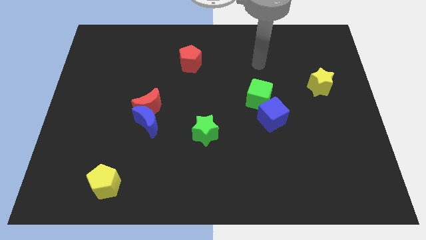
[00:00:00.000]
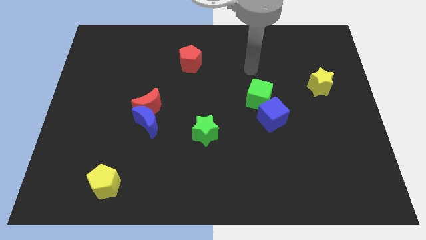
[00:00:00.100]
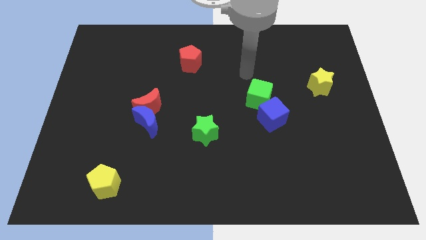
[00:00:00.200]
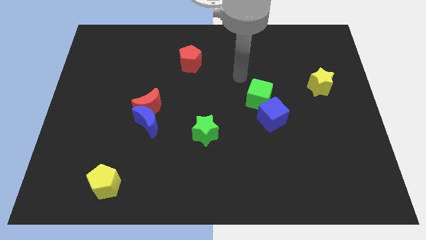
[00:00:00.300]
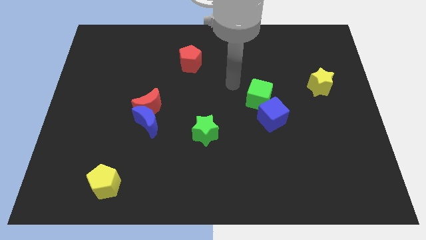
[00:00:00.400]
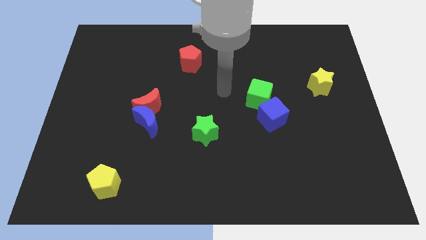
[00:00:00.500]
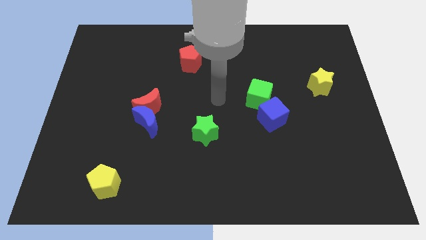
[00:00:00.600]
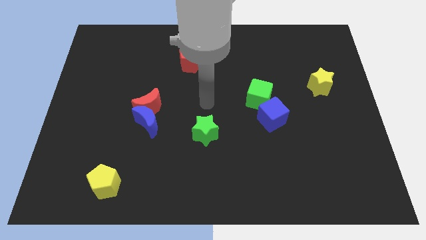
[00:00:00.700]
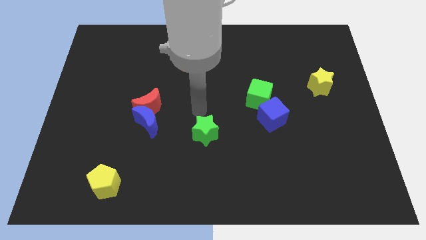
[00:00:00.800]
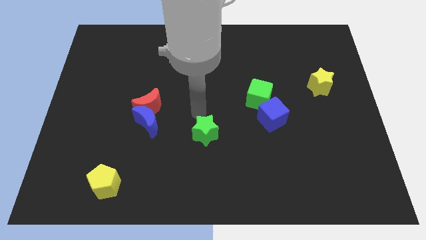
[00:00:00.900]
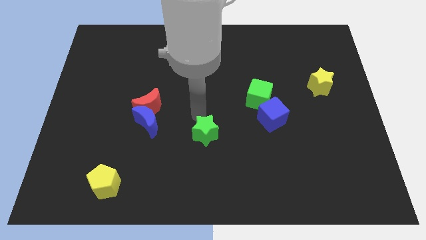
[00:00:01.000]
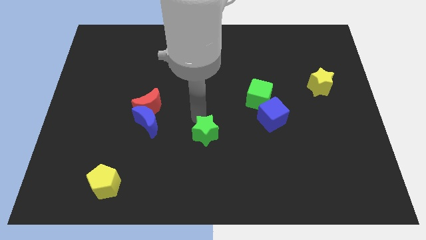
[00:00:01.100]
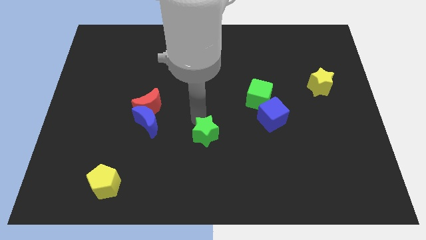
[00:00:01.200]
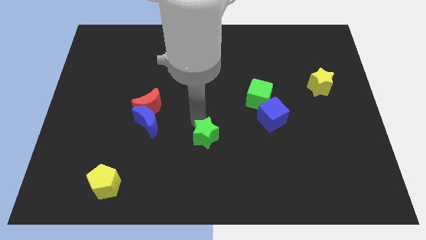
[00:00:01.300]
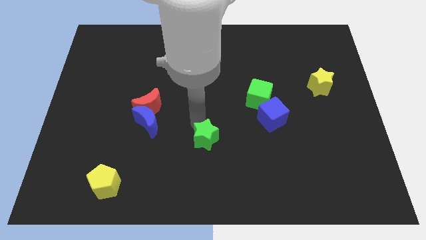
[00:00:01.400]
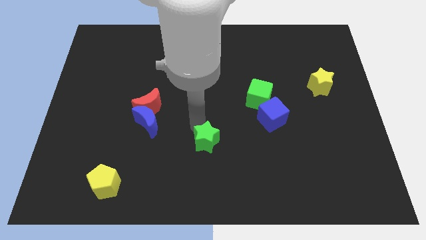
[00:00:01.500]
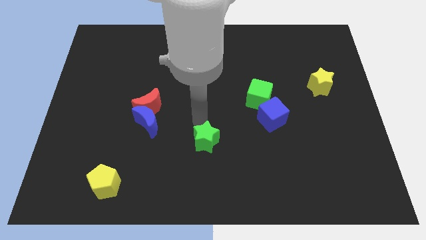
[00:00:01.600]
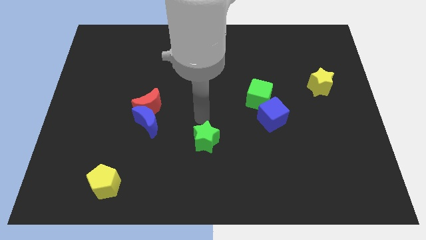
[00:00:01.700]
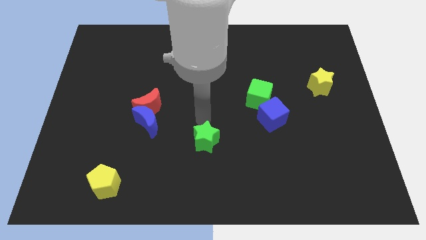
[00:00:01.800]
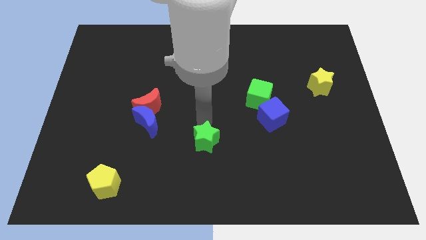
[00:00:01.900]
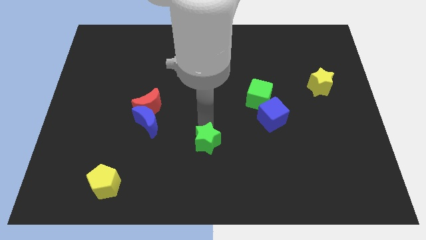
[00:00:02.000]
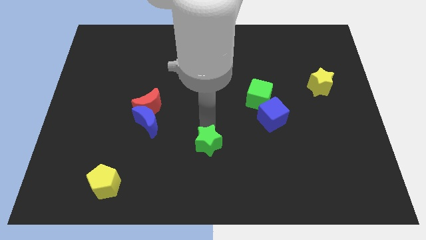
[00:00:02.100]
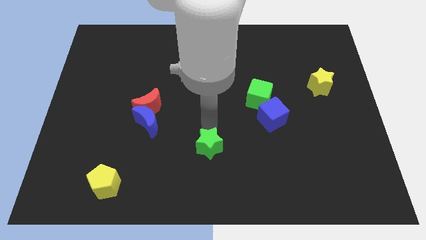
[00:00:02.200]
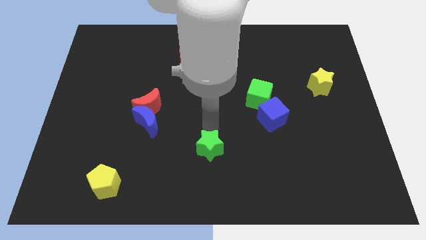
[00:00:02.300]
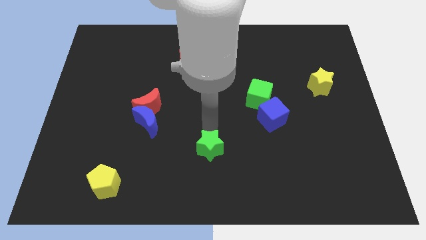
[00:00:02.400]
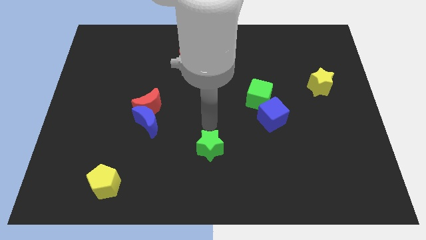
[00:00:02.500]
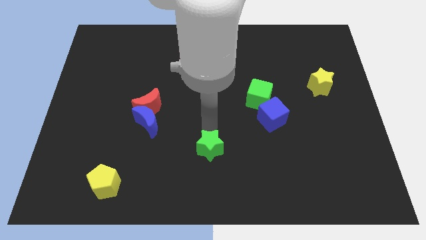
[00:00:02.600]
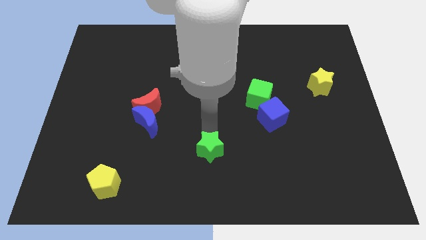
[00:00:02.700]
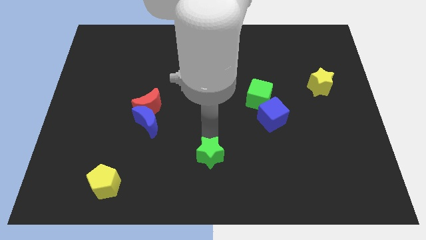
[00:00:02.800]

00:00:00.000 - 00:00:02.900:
put the green star to the bottom

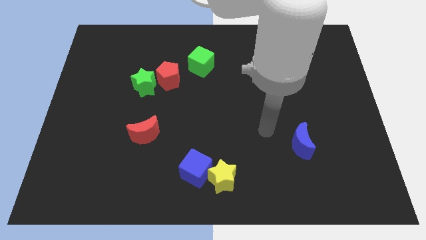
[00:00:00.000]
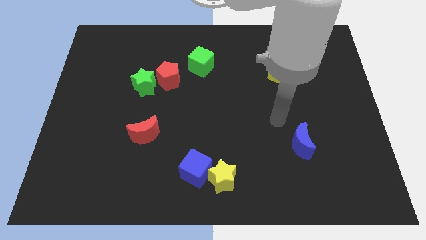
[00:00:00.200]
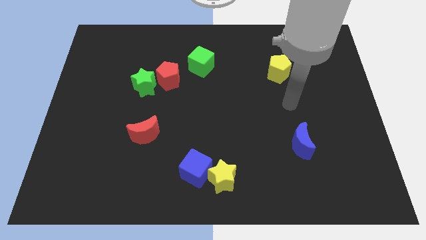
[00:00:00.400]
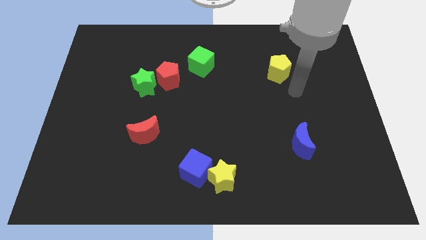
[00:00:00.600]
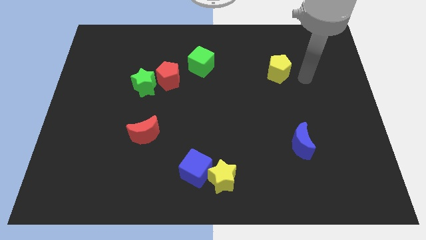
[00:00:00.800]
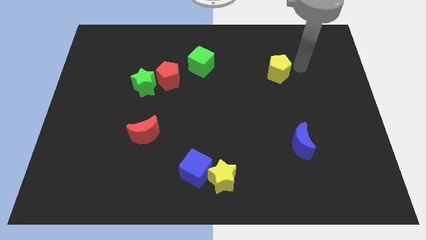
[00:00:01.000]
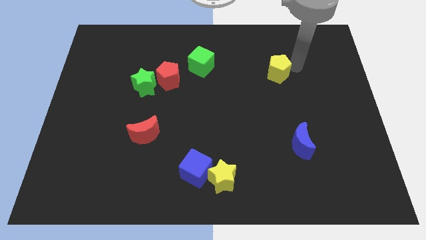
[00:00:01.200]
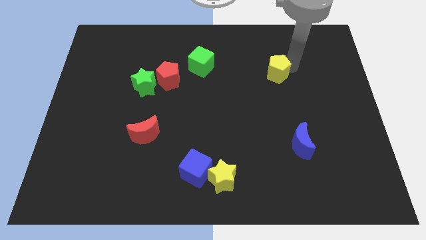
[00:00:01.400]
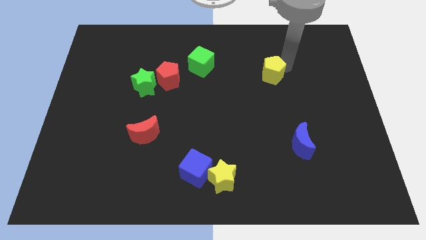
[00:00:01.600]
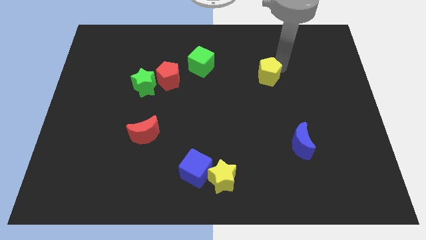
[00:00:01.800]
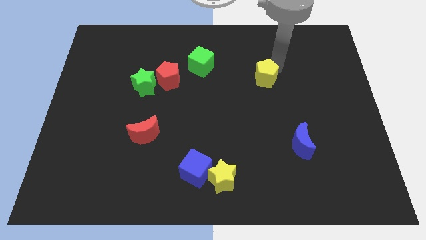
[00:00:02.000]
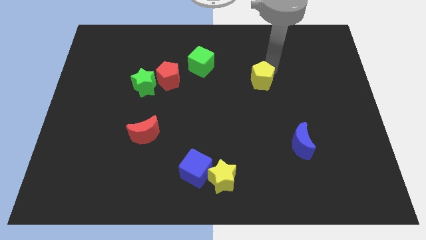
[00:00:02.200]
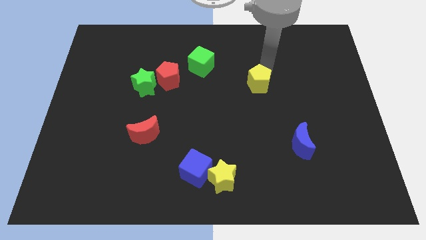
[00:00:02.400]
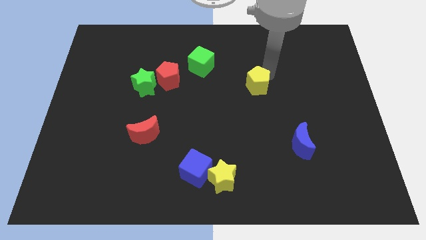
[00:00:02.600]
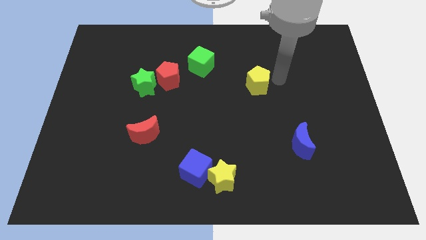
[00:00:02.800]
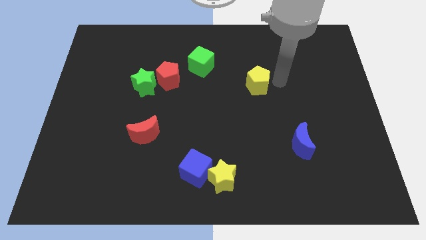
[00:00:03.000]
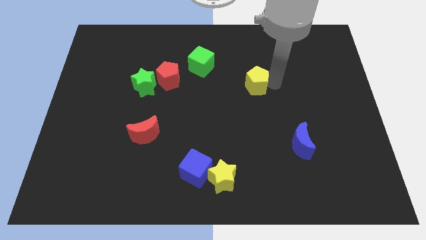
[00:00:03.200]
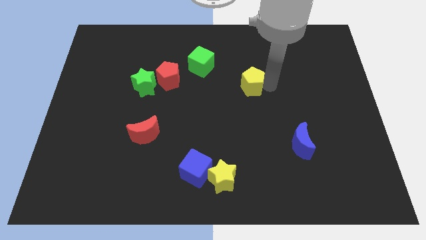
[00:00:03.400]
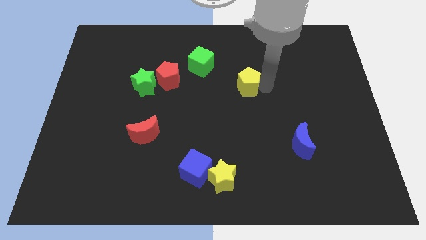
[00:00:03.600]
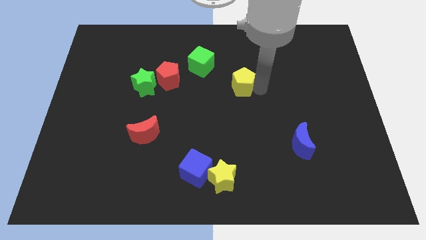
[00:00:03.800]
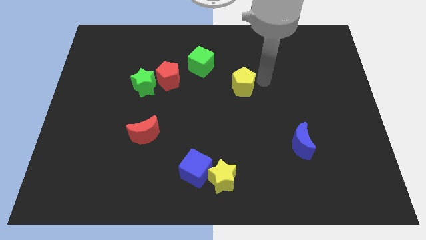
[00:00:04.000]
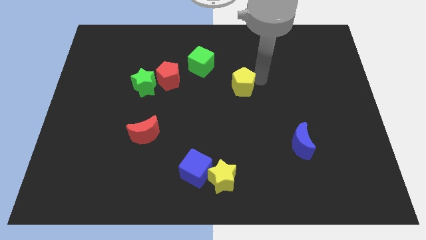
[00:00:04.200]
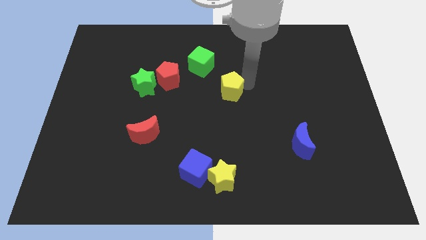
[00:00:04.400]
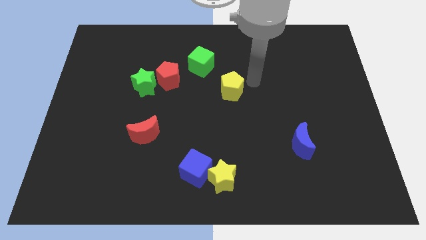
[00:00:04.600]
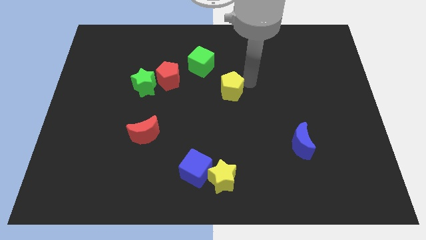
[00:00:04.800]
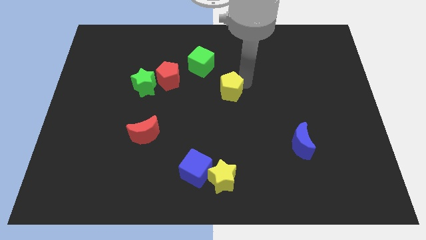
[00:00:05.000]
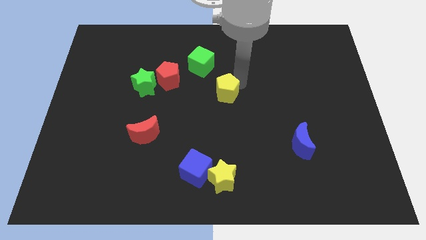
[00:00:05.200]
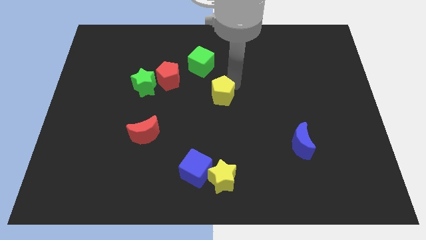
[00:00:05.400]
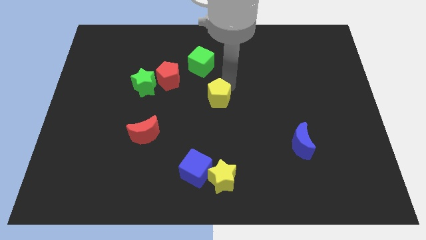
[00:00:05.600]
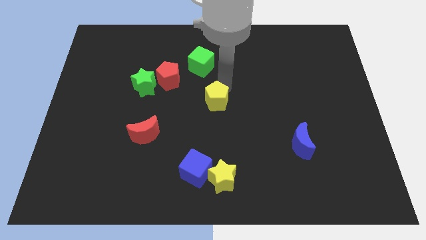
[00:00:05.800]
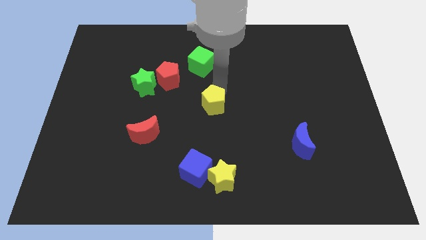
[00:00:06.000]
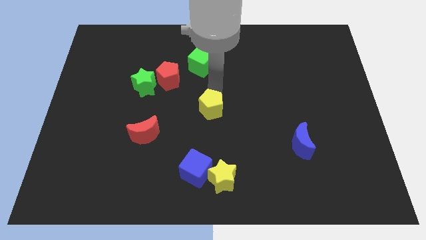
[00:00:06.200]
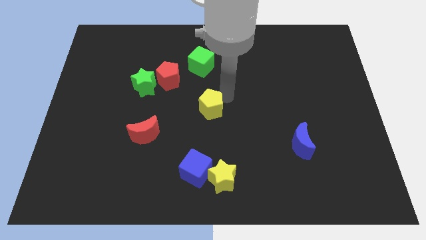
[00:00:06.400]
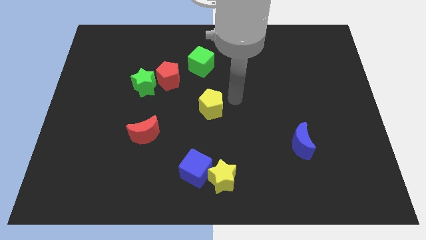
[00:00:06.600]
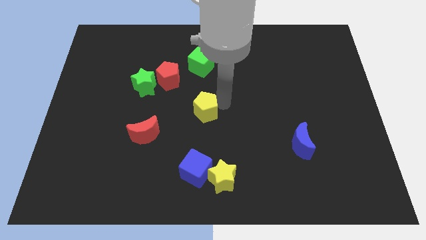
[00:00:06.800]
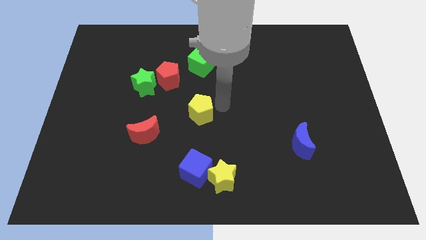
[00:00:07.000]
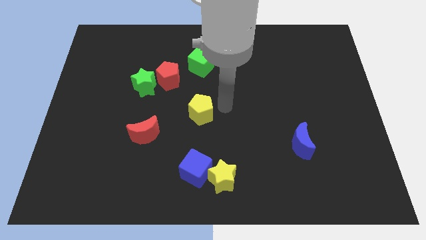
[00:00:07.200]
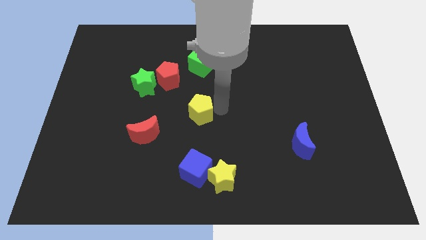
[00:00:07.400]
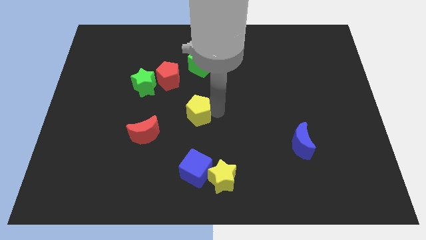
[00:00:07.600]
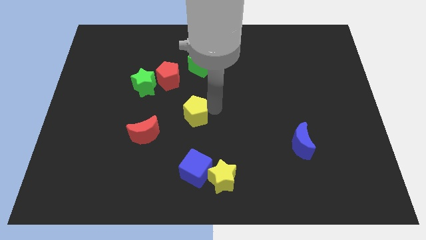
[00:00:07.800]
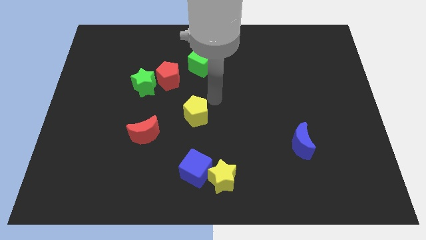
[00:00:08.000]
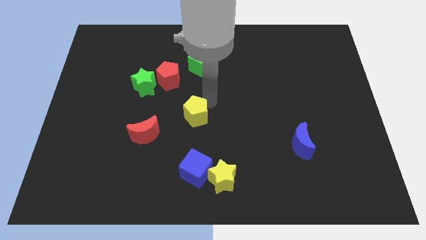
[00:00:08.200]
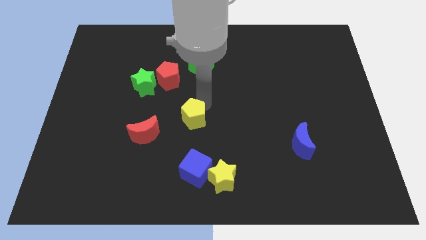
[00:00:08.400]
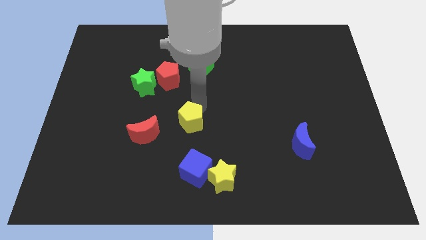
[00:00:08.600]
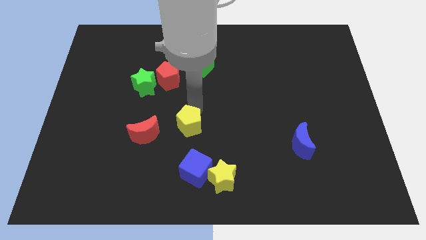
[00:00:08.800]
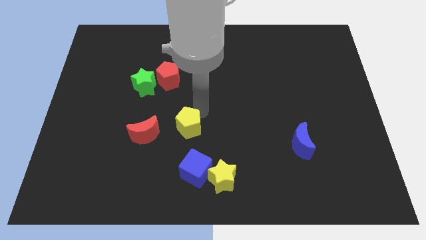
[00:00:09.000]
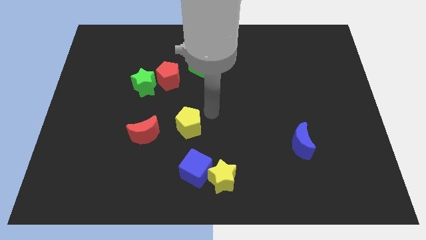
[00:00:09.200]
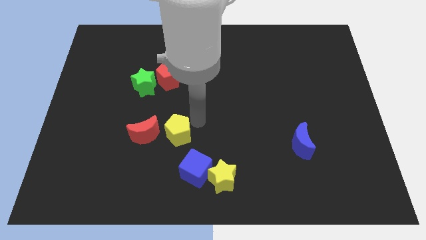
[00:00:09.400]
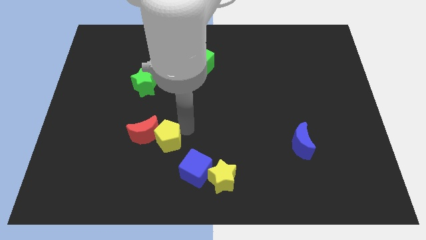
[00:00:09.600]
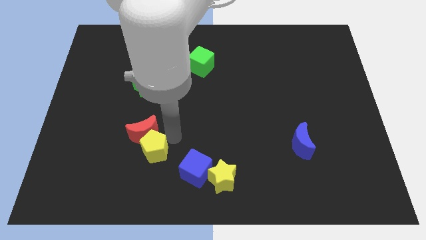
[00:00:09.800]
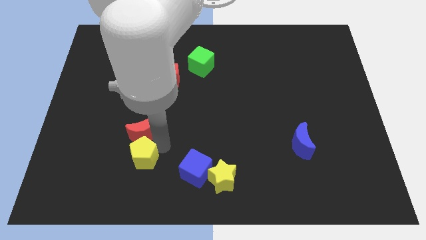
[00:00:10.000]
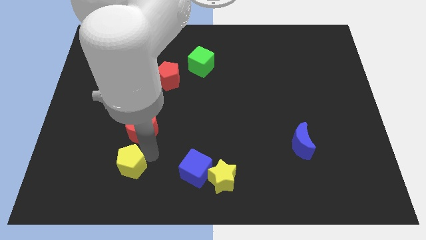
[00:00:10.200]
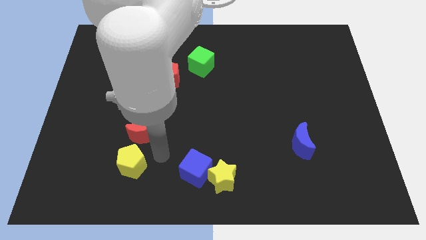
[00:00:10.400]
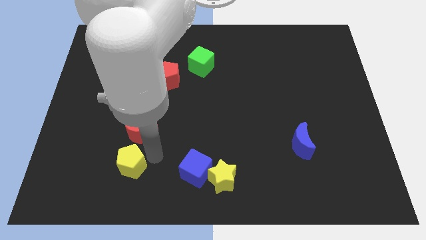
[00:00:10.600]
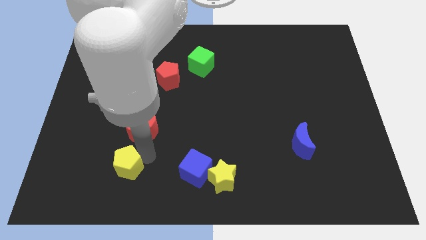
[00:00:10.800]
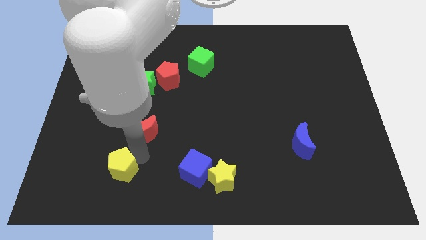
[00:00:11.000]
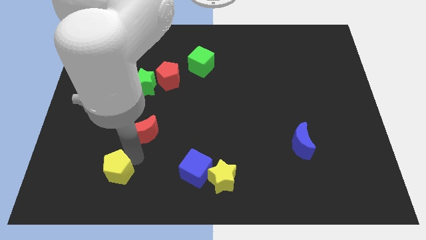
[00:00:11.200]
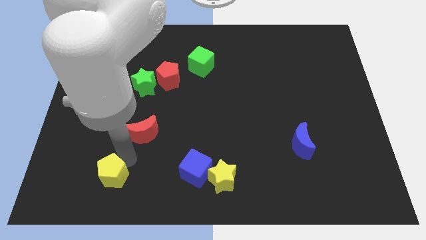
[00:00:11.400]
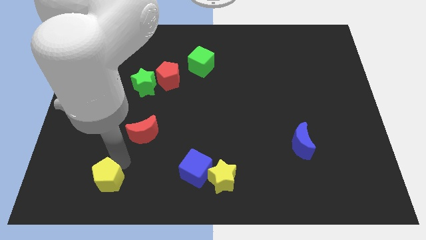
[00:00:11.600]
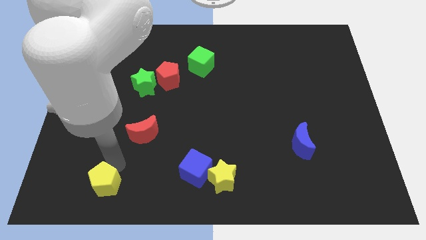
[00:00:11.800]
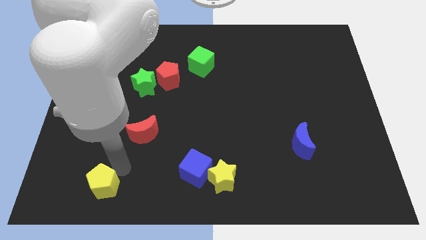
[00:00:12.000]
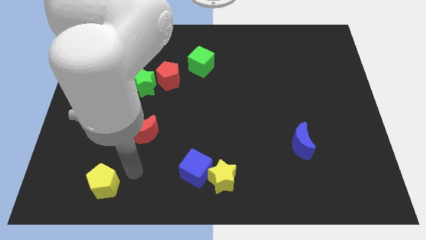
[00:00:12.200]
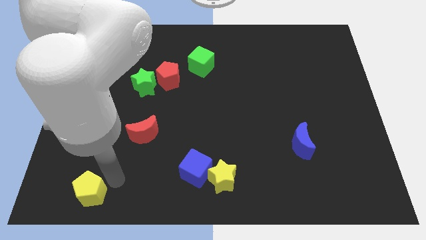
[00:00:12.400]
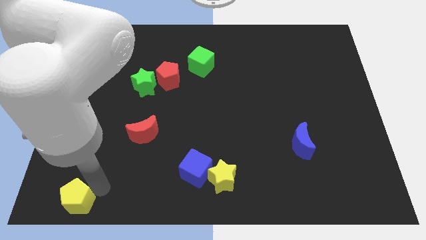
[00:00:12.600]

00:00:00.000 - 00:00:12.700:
move the yellow pentagon to the bottom left corner
